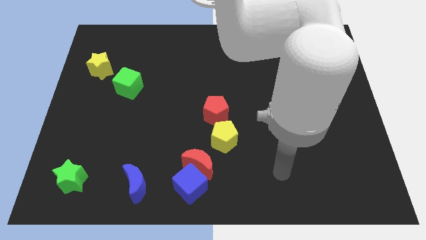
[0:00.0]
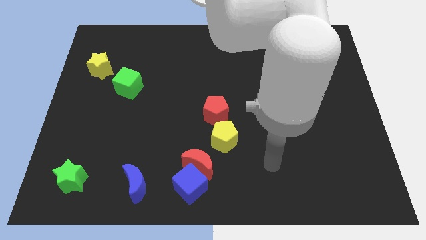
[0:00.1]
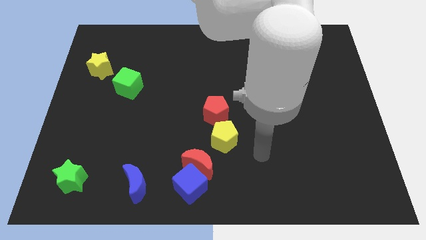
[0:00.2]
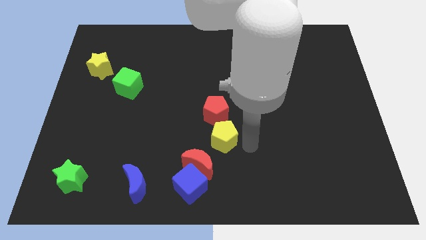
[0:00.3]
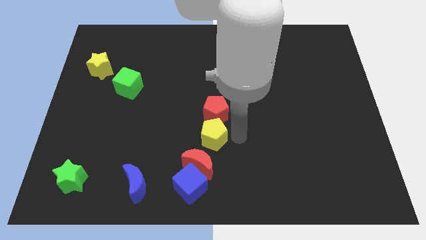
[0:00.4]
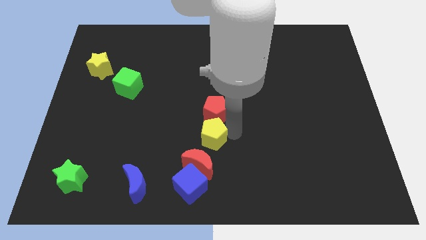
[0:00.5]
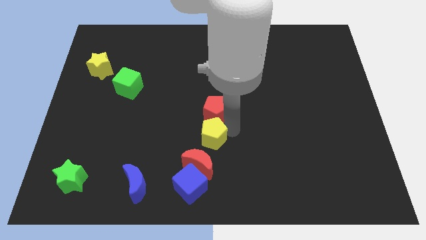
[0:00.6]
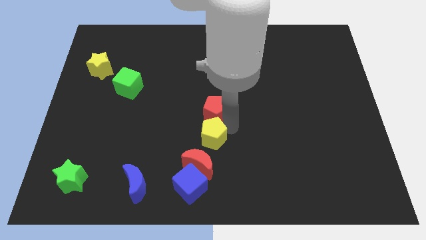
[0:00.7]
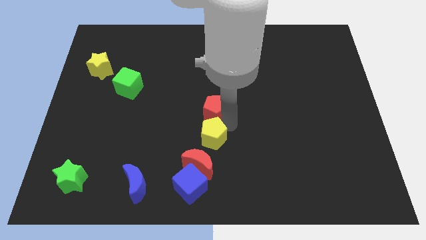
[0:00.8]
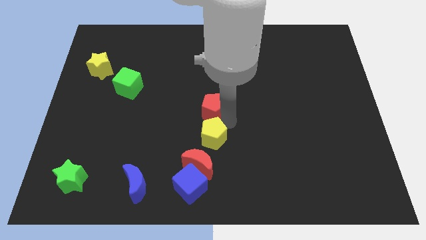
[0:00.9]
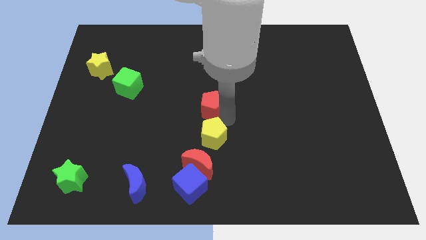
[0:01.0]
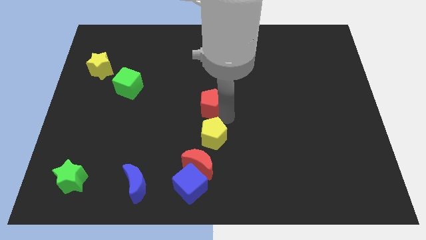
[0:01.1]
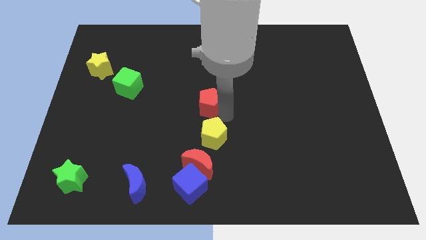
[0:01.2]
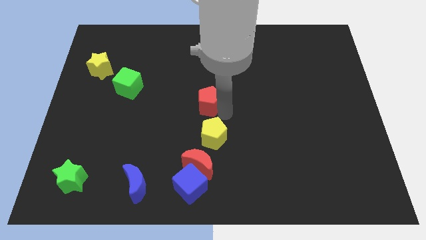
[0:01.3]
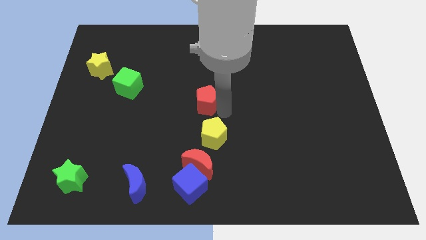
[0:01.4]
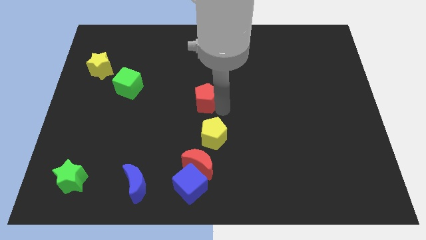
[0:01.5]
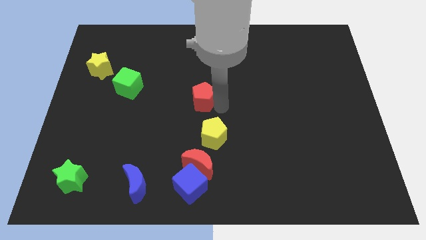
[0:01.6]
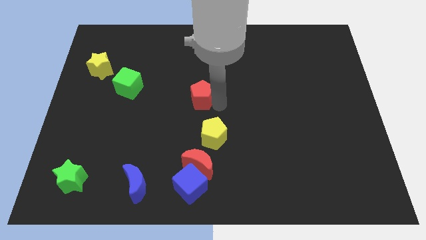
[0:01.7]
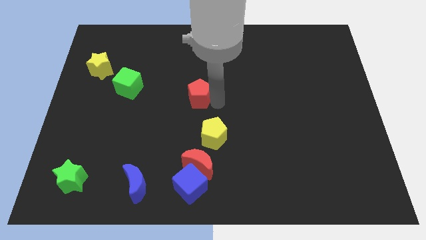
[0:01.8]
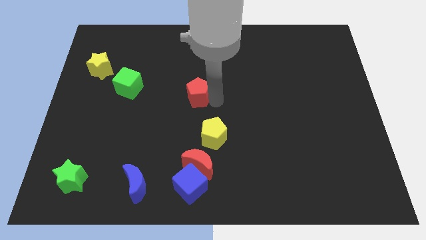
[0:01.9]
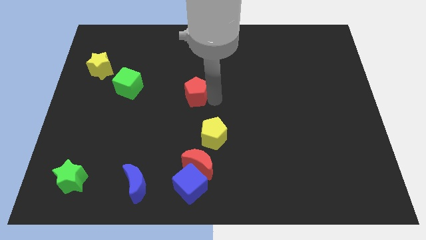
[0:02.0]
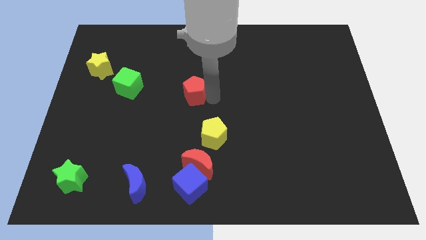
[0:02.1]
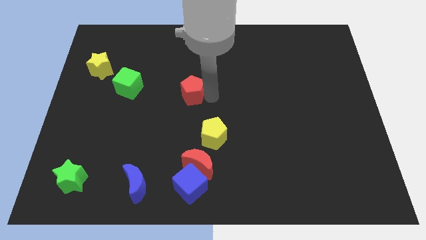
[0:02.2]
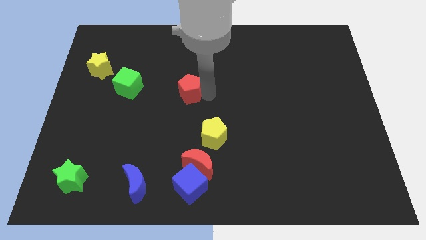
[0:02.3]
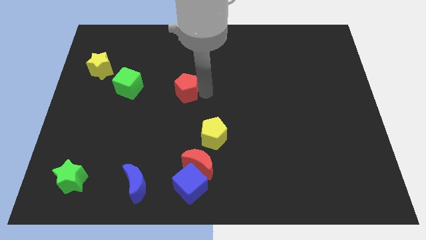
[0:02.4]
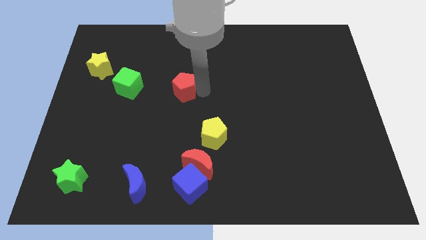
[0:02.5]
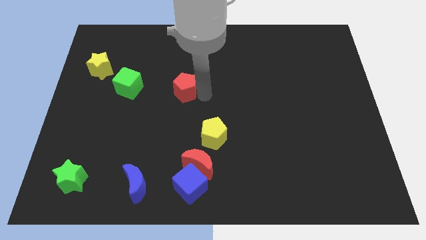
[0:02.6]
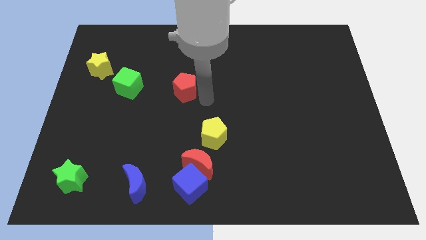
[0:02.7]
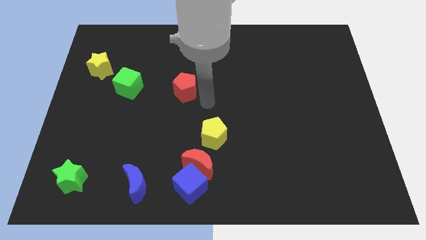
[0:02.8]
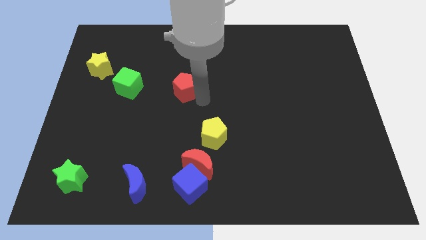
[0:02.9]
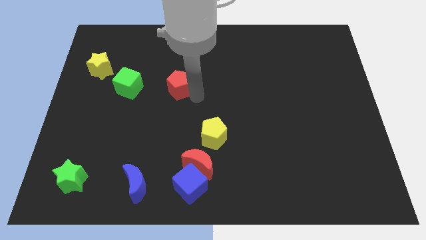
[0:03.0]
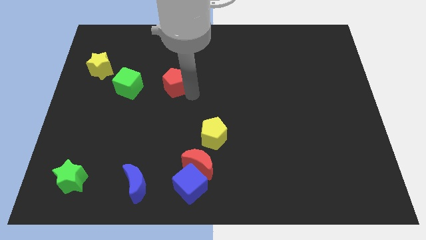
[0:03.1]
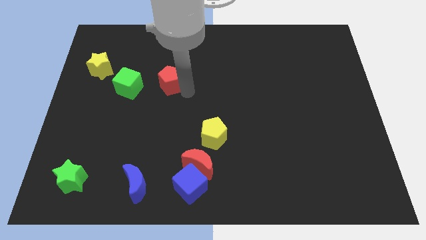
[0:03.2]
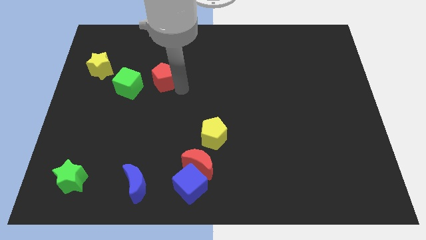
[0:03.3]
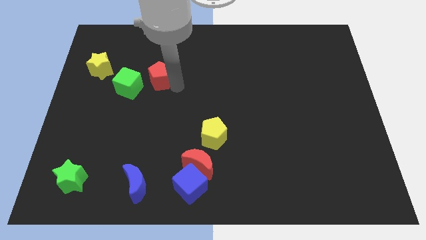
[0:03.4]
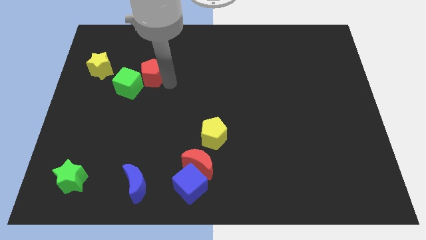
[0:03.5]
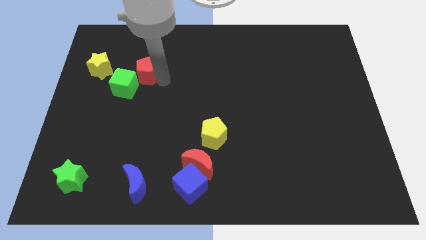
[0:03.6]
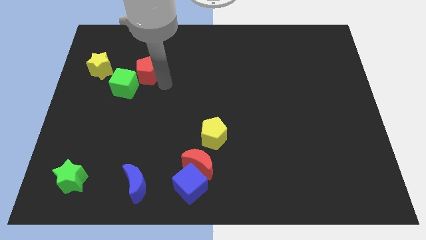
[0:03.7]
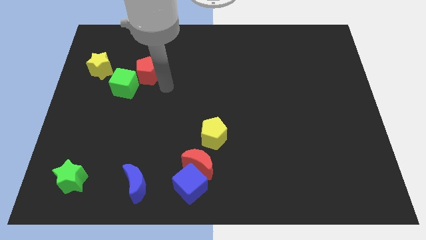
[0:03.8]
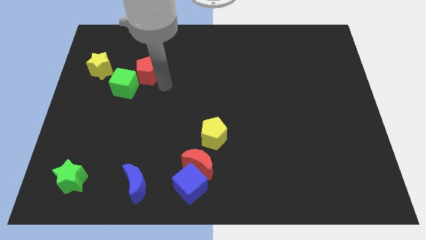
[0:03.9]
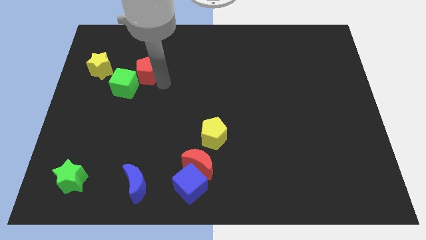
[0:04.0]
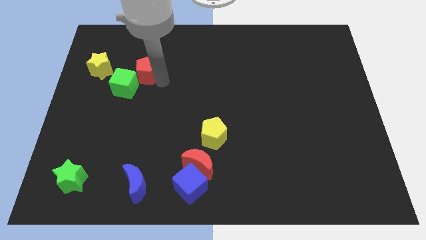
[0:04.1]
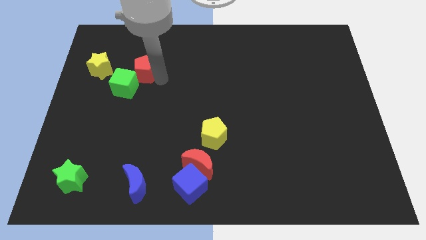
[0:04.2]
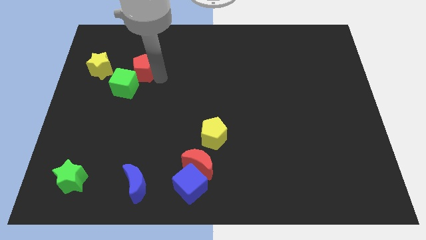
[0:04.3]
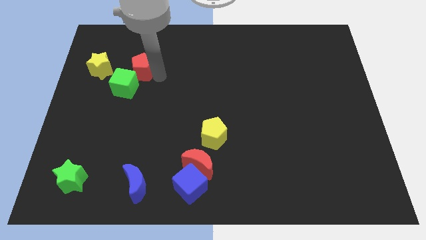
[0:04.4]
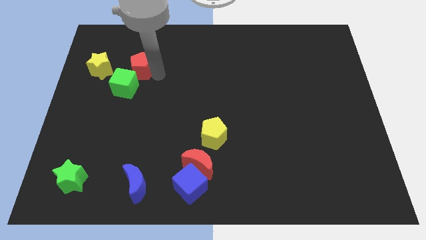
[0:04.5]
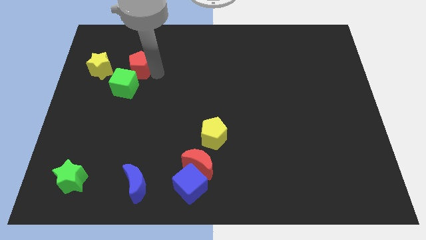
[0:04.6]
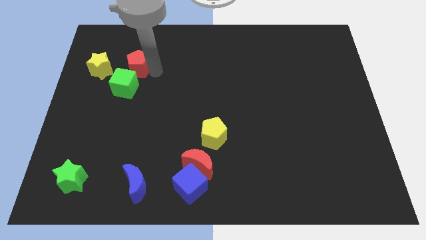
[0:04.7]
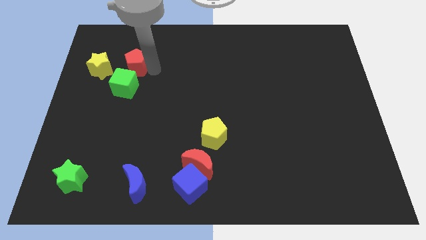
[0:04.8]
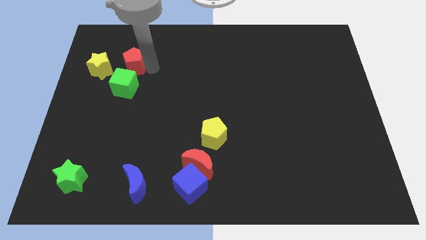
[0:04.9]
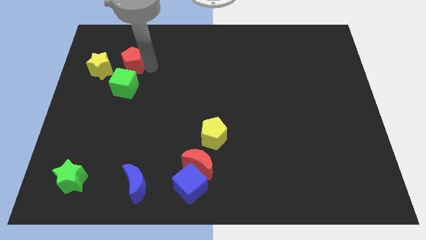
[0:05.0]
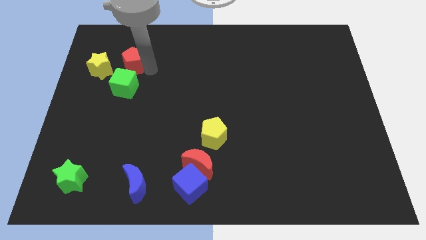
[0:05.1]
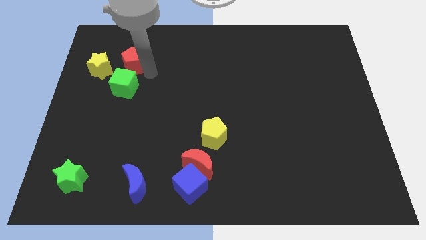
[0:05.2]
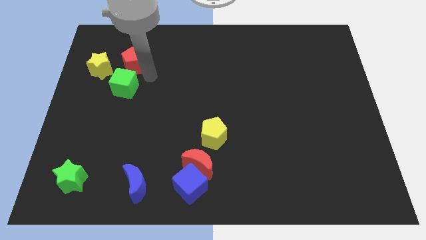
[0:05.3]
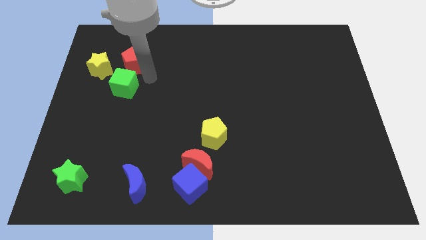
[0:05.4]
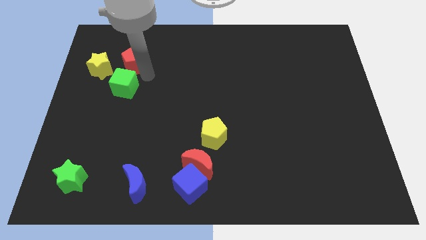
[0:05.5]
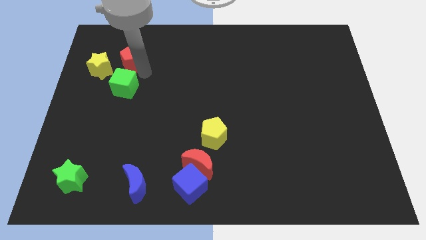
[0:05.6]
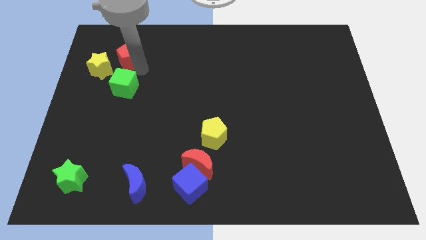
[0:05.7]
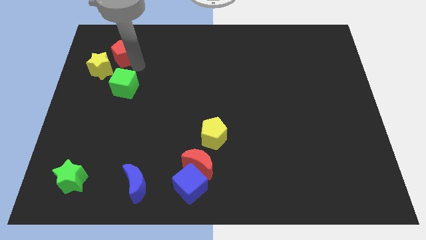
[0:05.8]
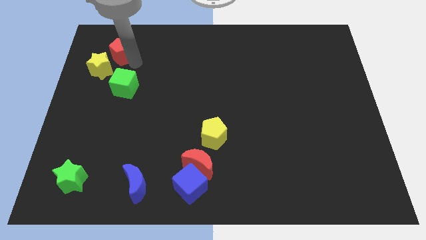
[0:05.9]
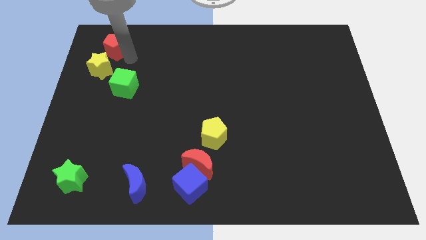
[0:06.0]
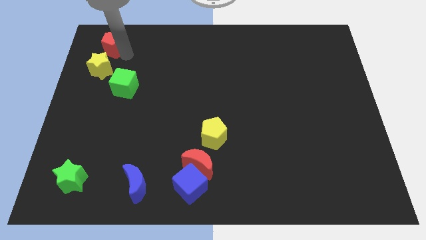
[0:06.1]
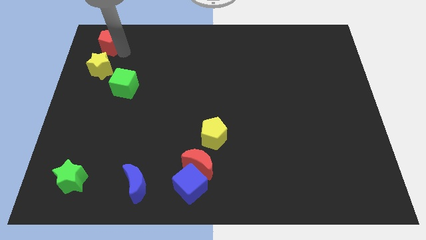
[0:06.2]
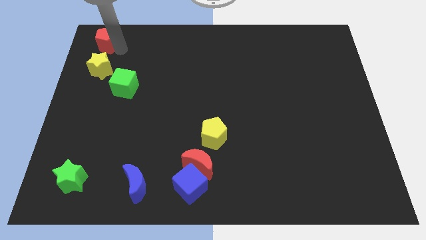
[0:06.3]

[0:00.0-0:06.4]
move the red pentagon to the upper left corner

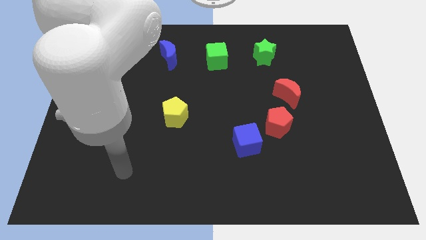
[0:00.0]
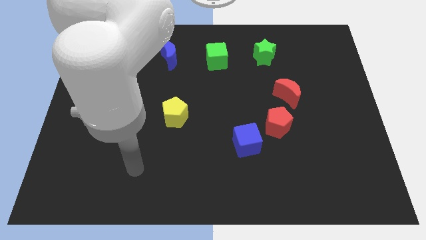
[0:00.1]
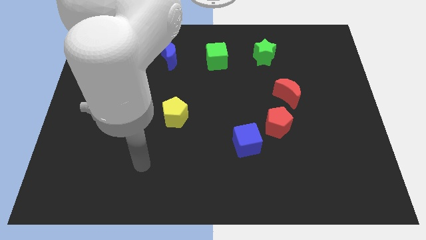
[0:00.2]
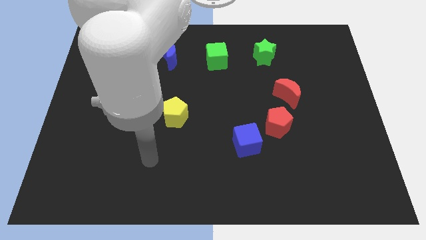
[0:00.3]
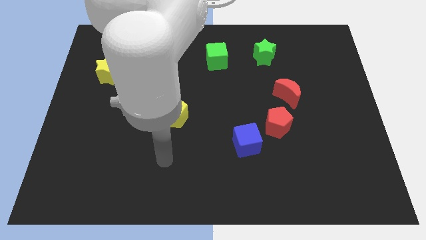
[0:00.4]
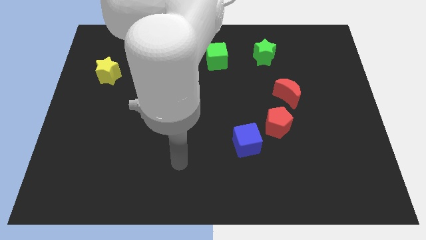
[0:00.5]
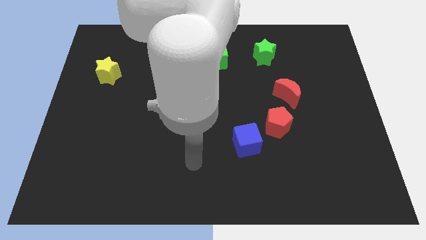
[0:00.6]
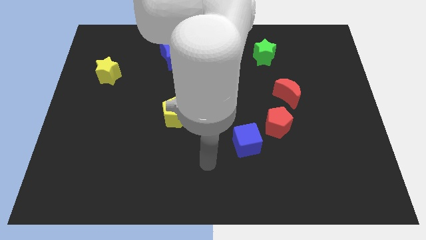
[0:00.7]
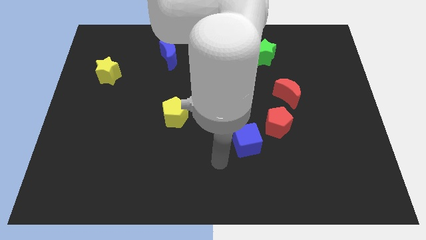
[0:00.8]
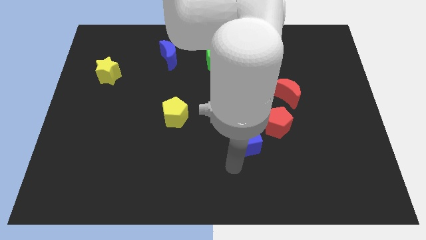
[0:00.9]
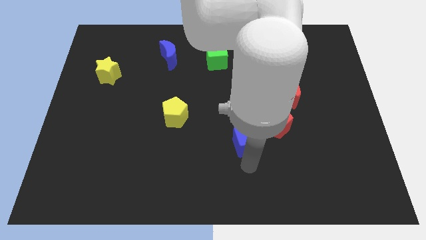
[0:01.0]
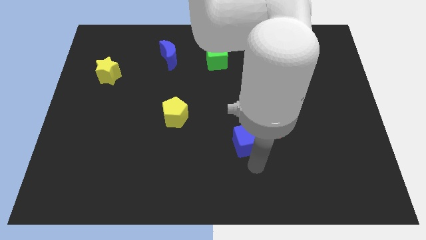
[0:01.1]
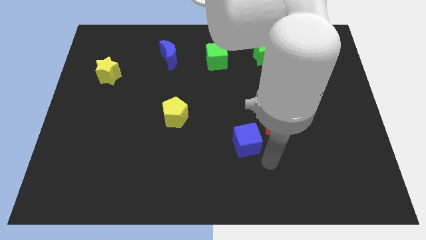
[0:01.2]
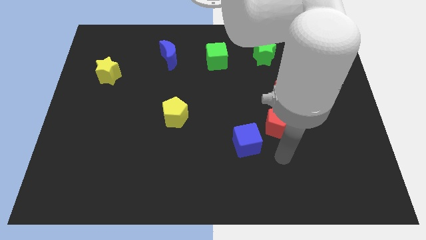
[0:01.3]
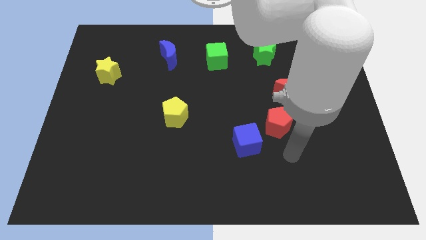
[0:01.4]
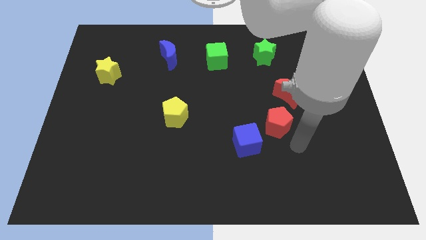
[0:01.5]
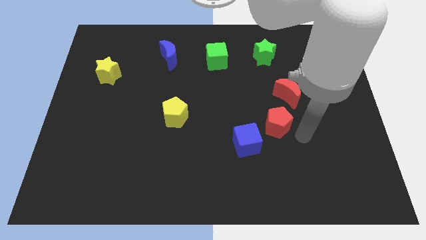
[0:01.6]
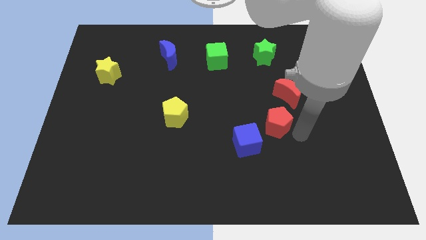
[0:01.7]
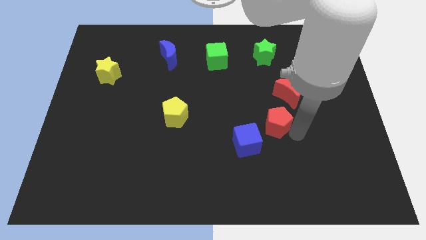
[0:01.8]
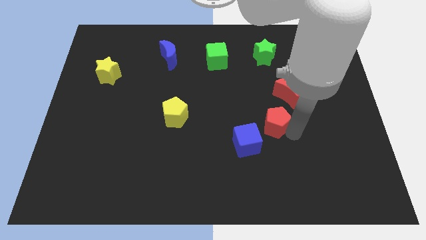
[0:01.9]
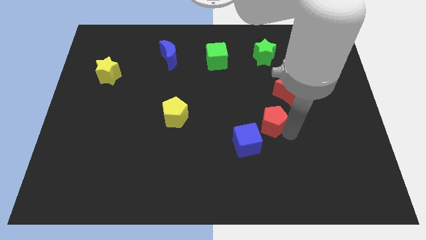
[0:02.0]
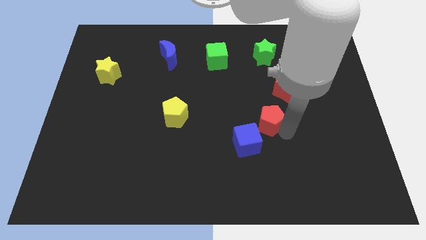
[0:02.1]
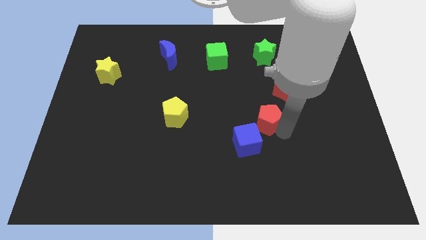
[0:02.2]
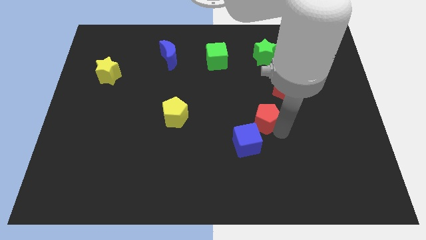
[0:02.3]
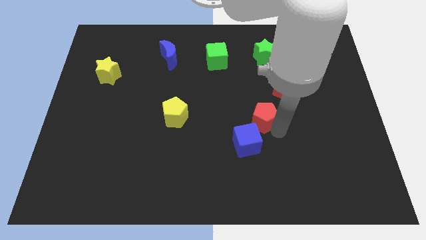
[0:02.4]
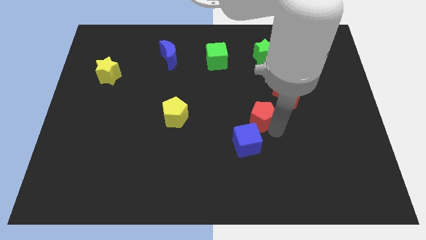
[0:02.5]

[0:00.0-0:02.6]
move the red pentagon to the center of the board
